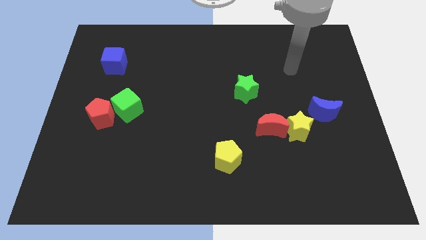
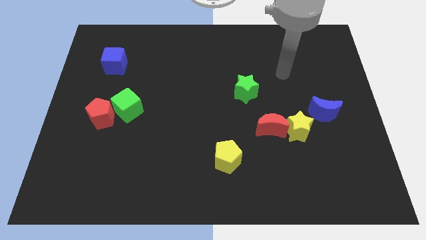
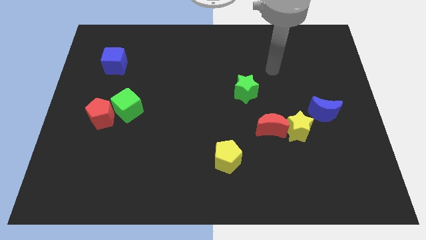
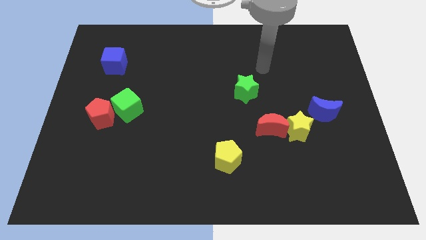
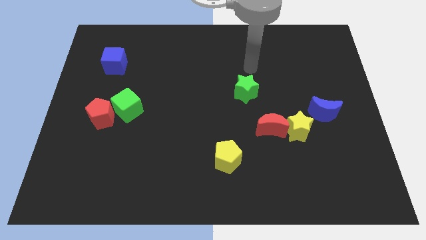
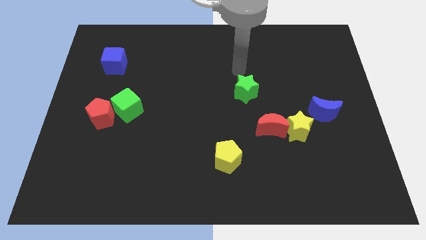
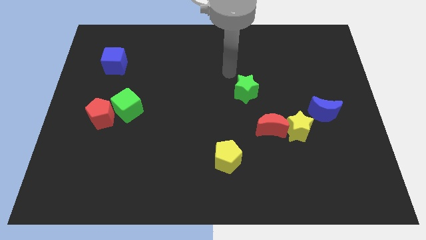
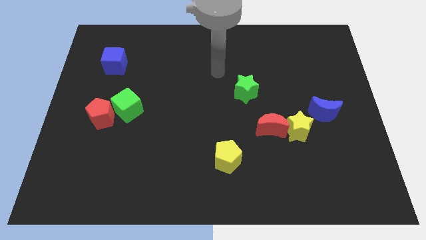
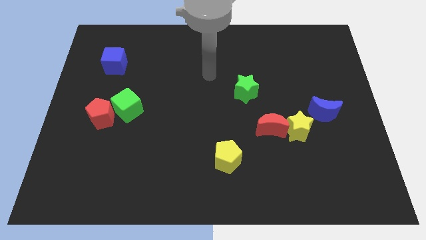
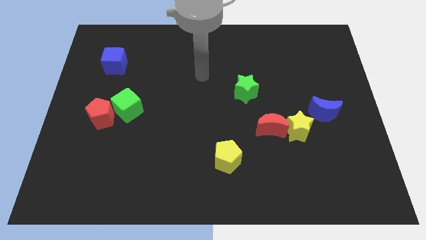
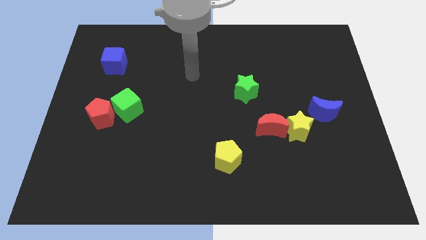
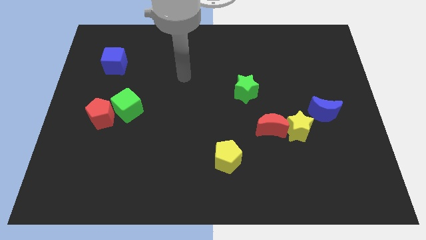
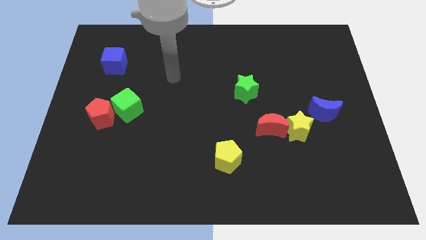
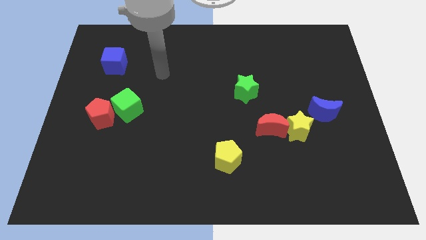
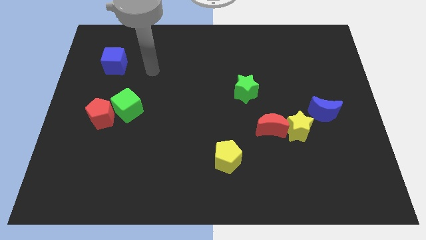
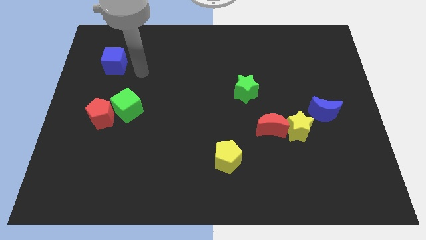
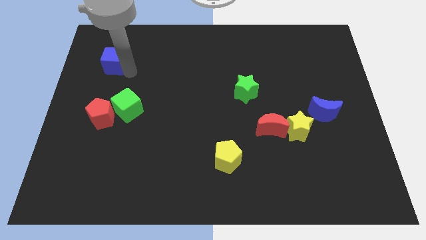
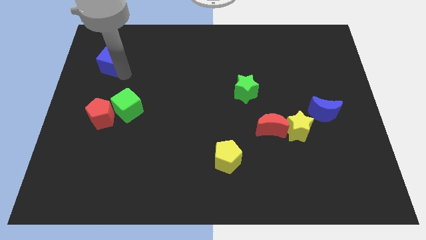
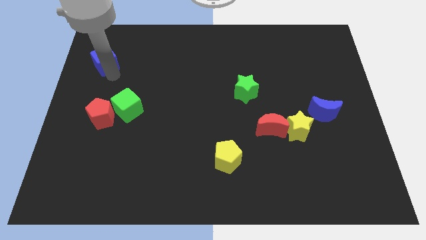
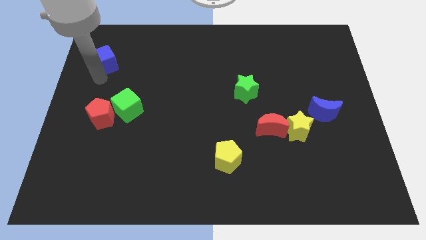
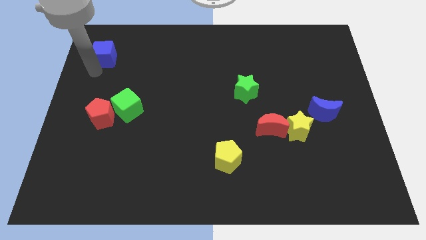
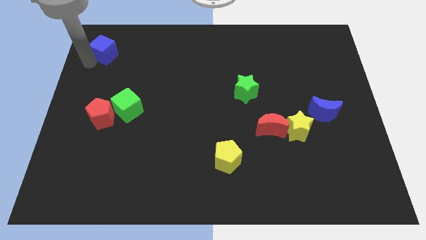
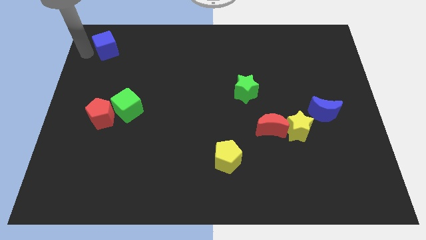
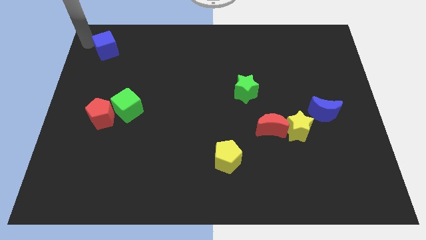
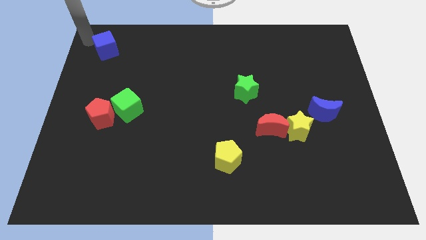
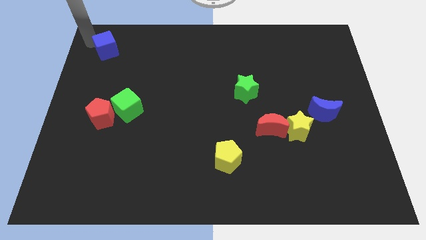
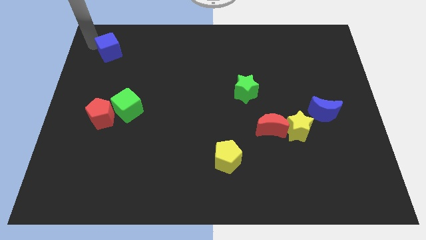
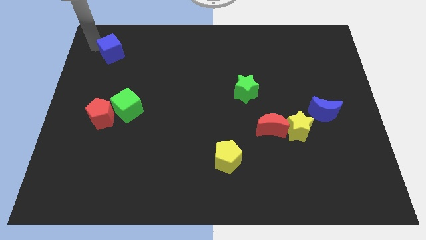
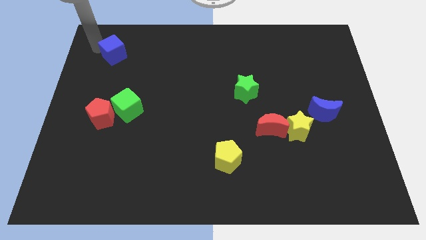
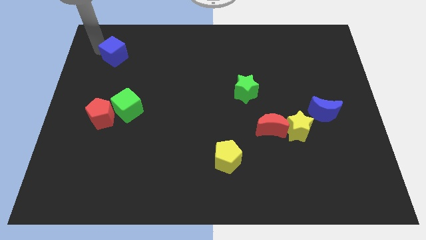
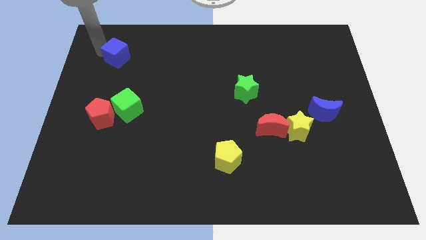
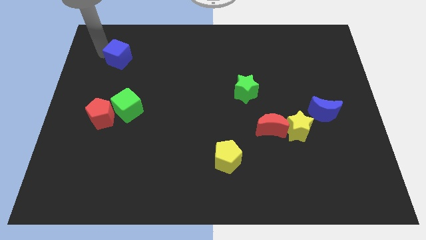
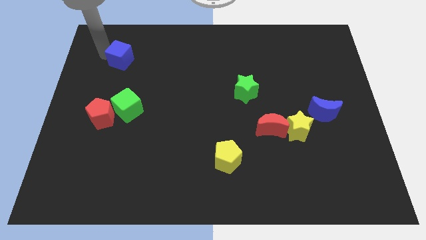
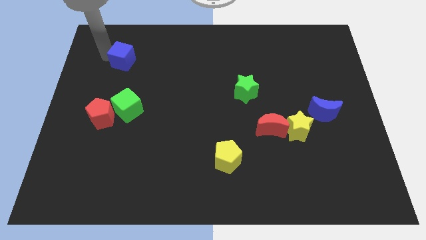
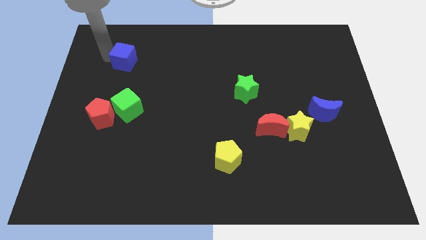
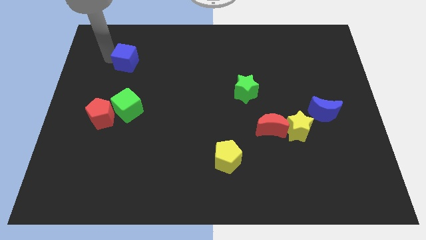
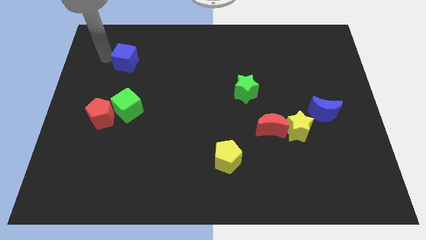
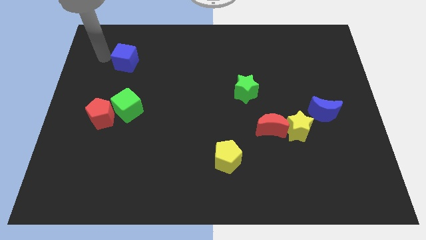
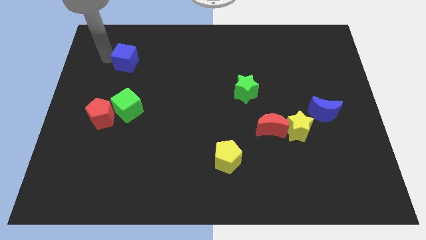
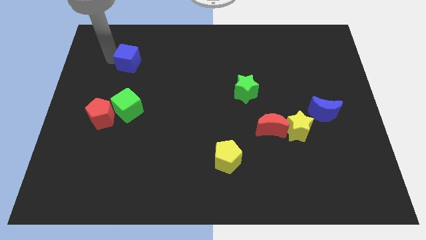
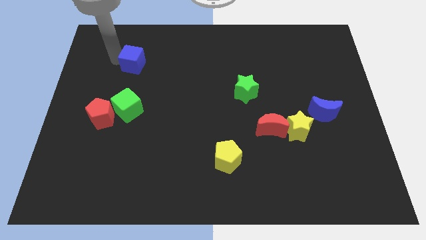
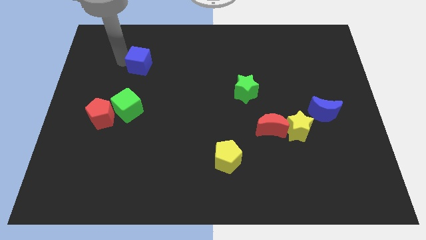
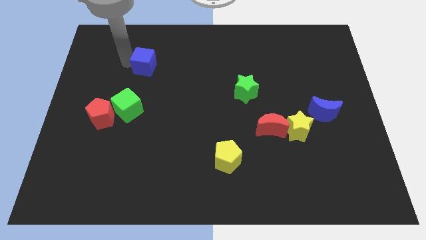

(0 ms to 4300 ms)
push the blue cube somewhat to the right

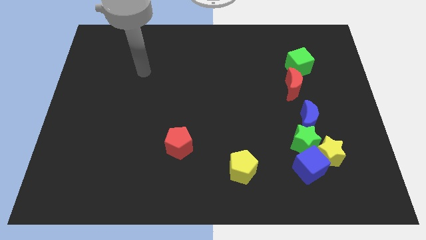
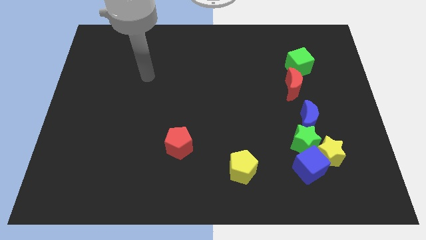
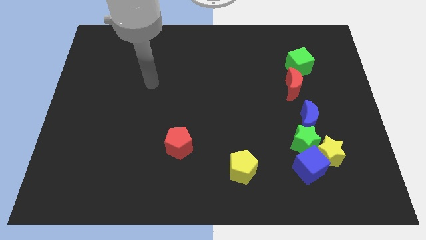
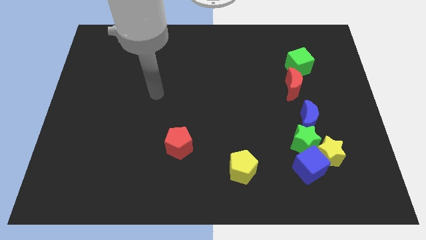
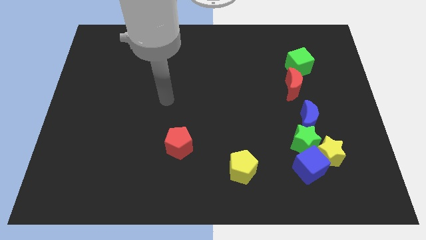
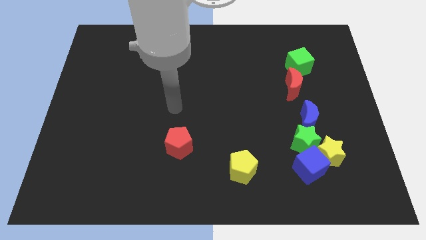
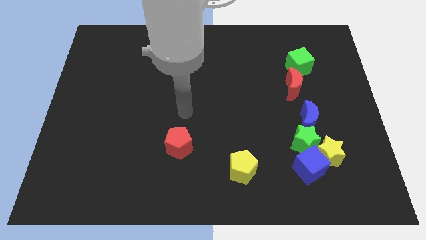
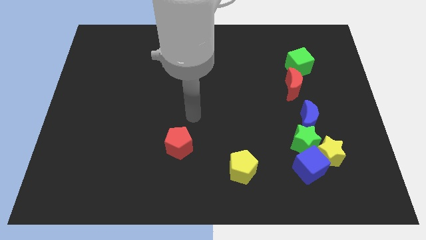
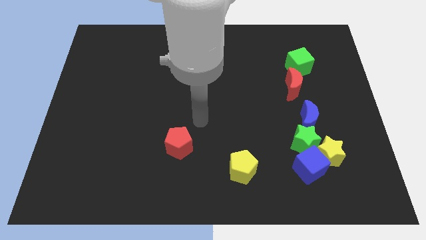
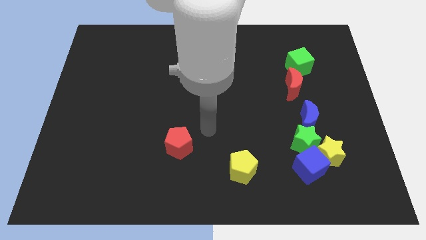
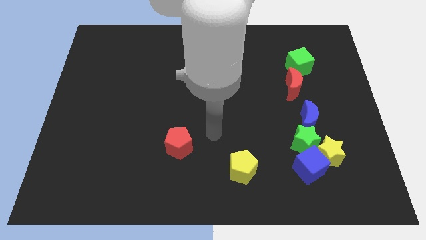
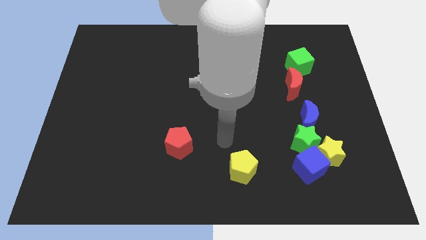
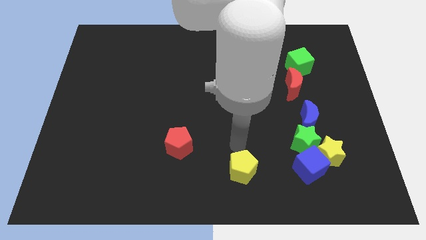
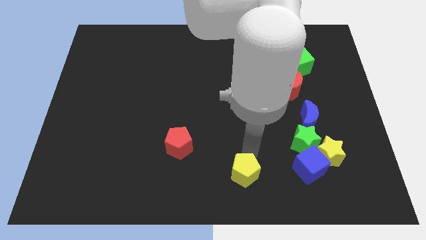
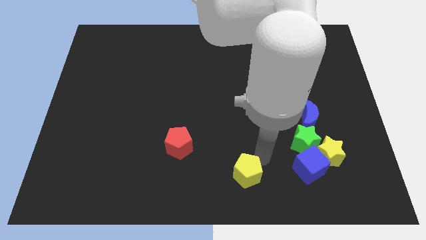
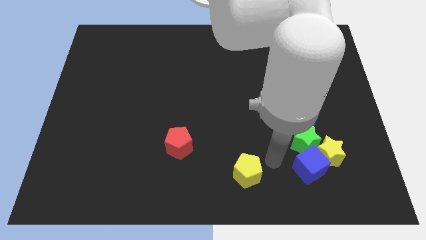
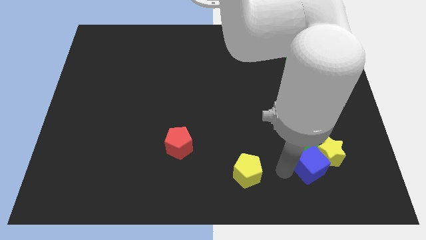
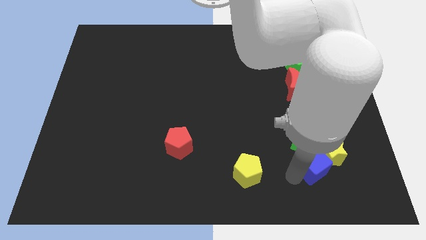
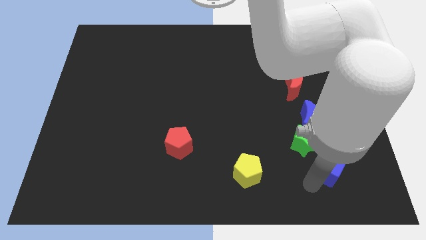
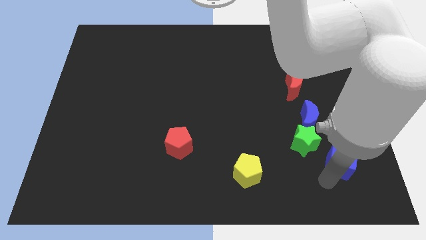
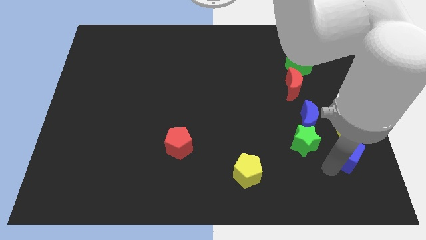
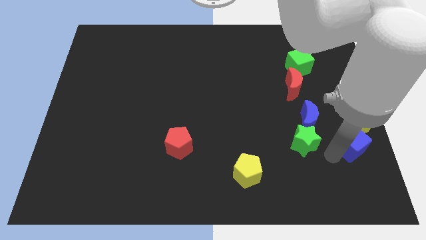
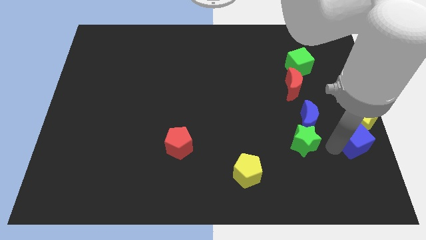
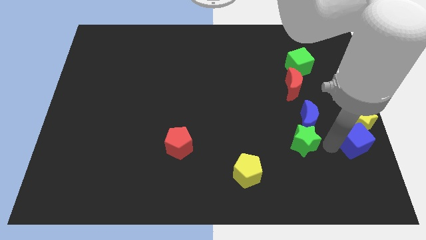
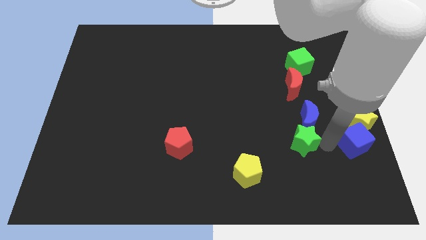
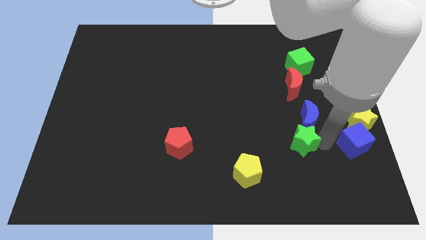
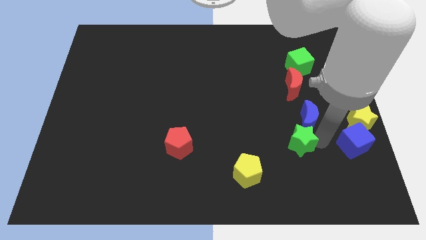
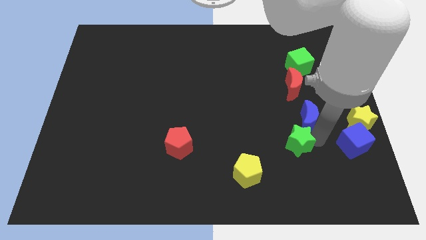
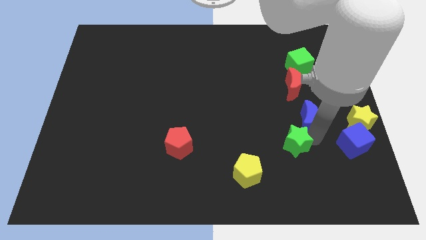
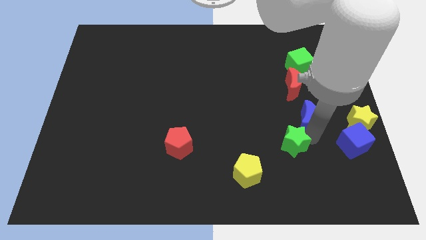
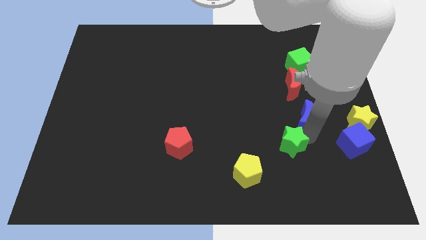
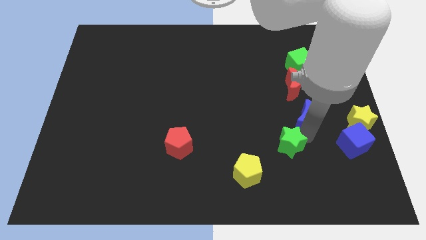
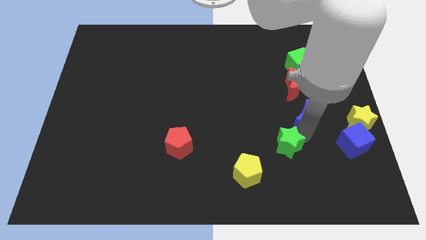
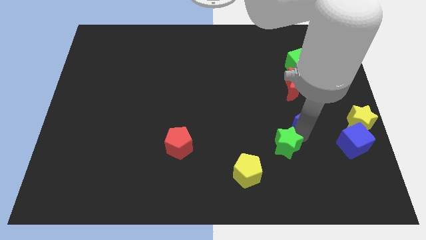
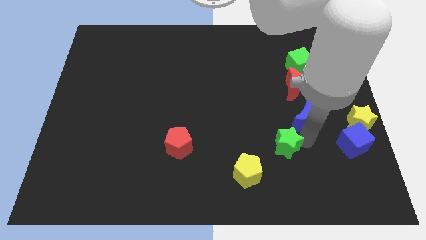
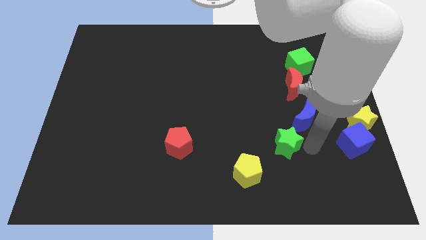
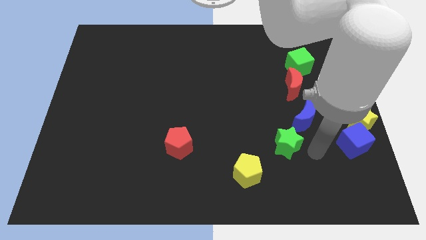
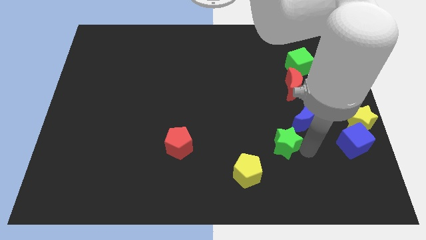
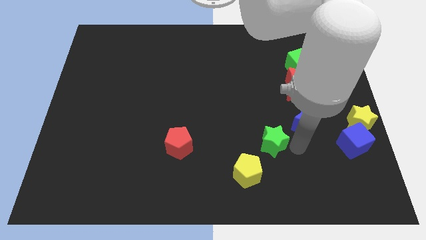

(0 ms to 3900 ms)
push the green star left a little bit
